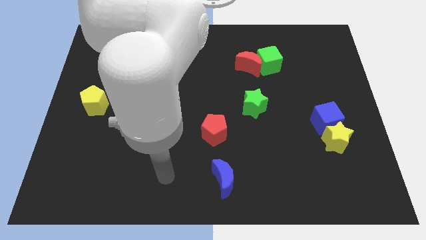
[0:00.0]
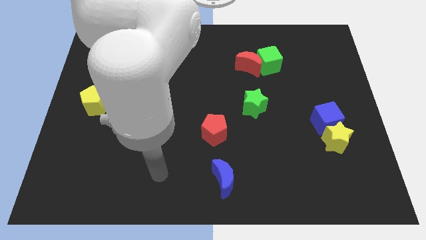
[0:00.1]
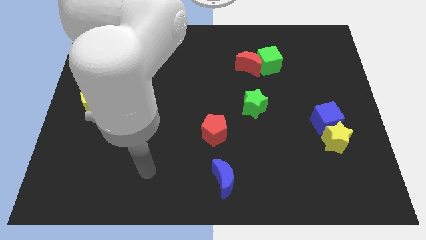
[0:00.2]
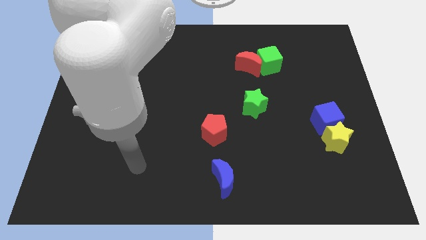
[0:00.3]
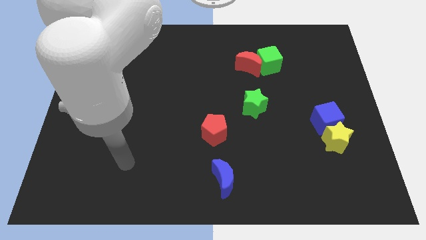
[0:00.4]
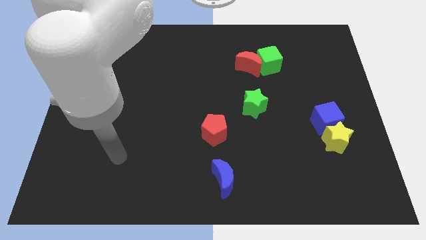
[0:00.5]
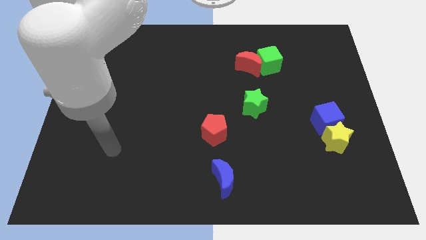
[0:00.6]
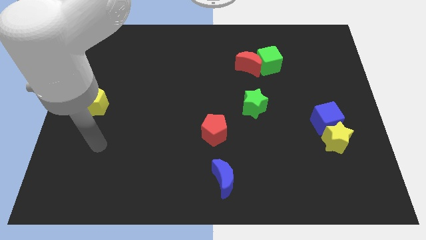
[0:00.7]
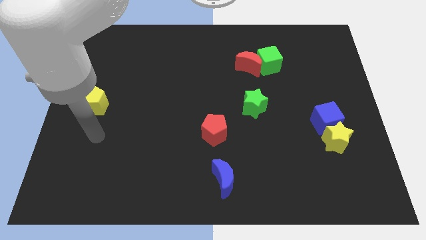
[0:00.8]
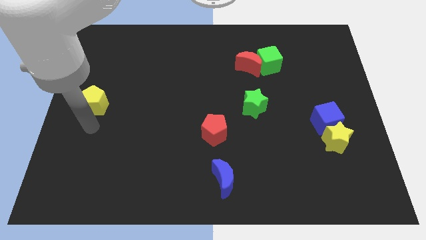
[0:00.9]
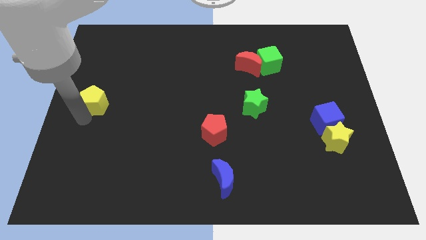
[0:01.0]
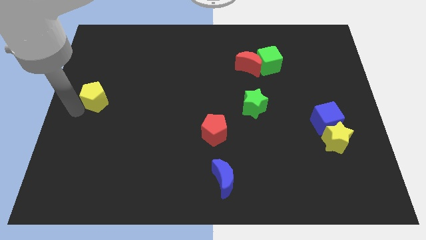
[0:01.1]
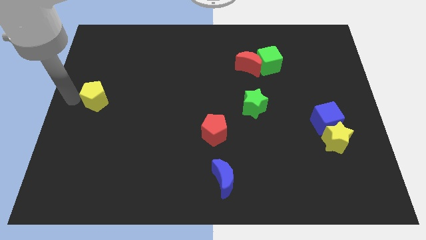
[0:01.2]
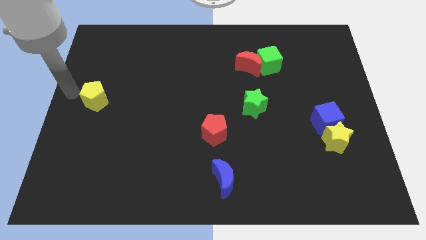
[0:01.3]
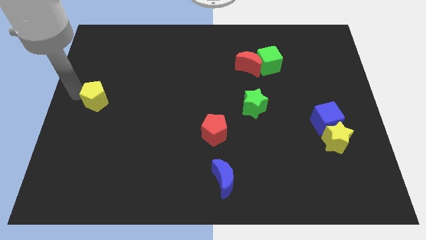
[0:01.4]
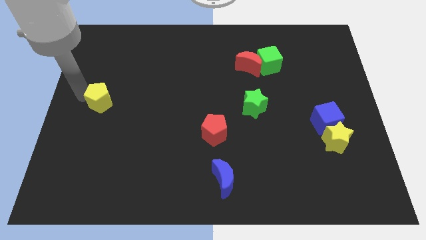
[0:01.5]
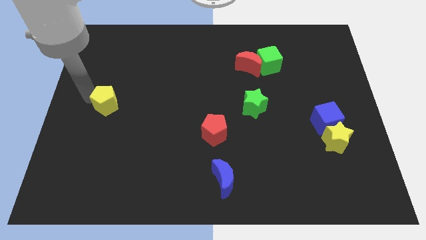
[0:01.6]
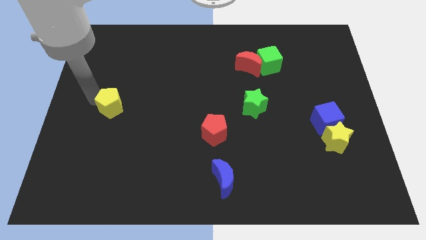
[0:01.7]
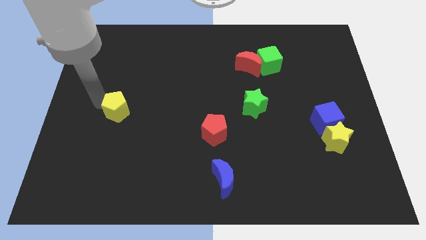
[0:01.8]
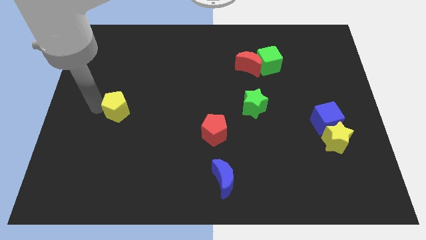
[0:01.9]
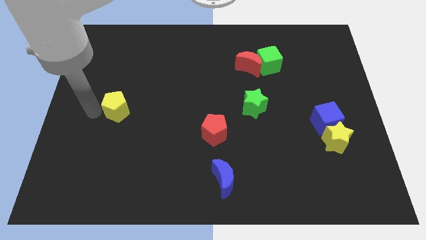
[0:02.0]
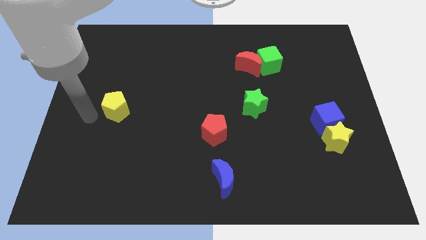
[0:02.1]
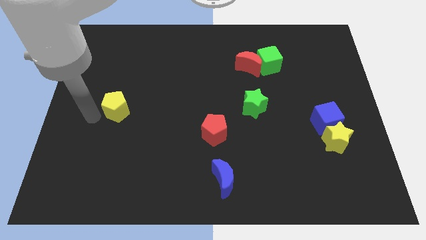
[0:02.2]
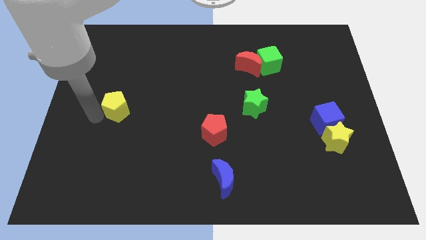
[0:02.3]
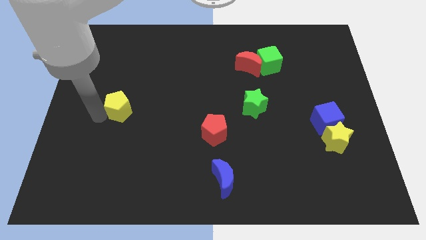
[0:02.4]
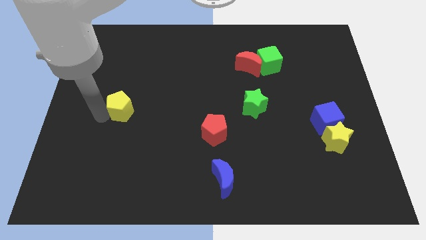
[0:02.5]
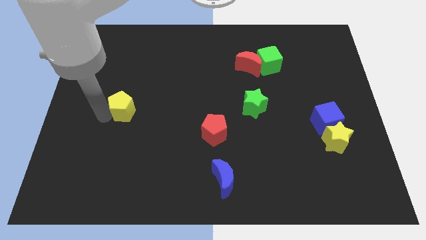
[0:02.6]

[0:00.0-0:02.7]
push the yellow pentagon a little right

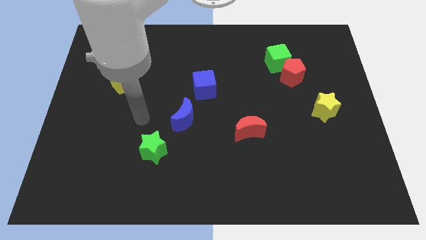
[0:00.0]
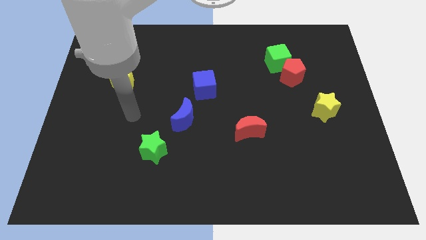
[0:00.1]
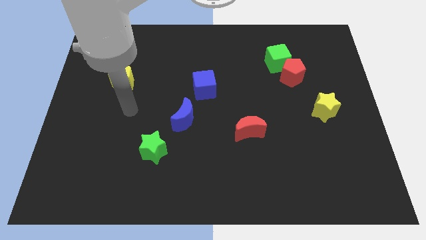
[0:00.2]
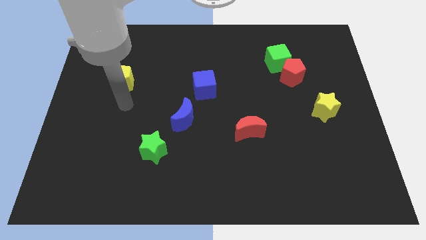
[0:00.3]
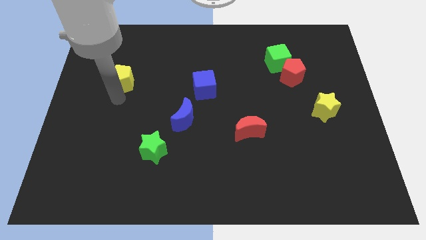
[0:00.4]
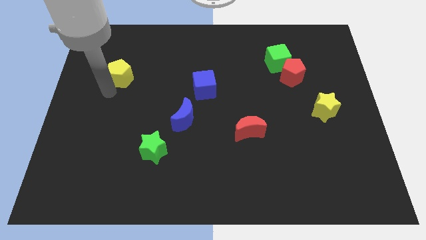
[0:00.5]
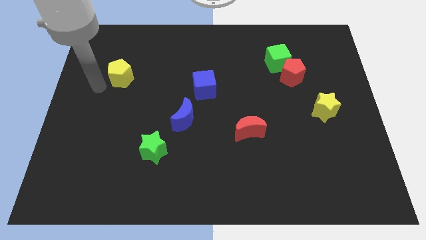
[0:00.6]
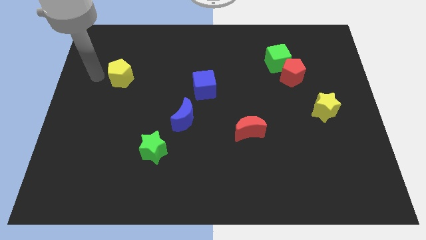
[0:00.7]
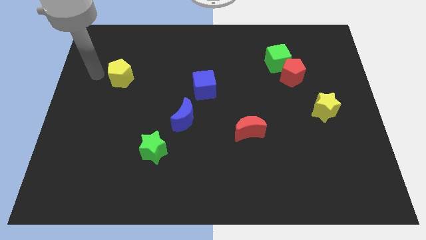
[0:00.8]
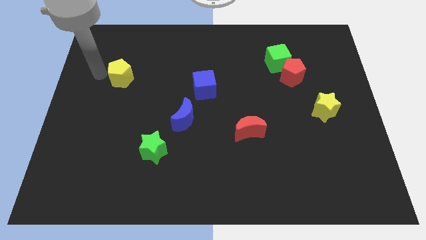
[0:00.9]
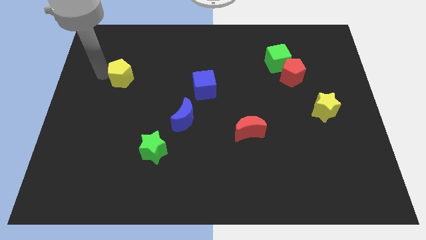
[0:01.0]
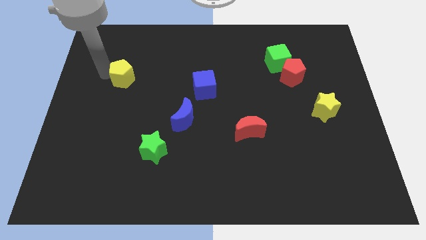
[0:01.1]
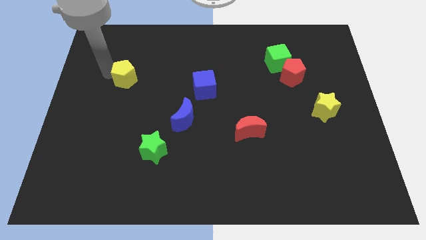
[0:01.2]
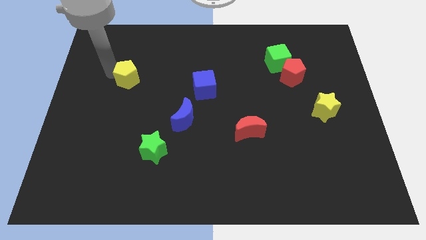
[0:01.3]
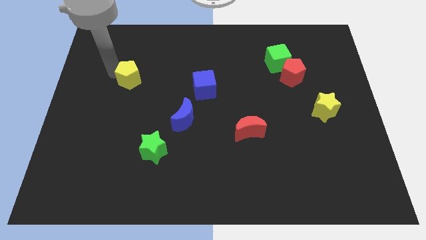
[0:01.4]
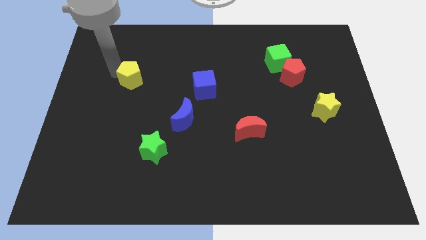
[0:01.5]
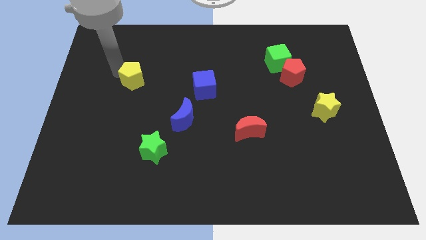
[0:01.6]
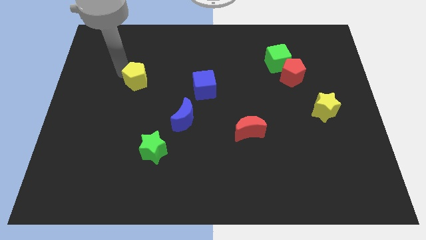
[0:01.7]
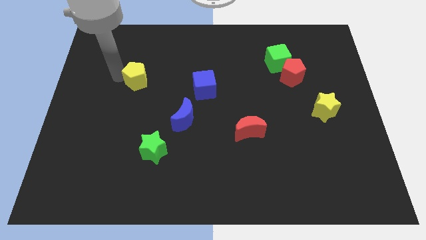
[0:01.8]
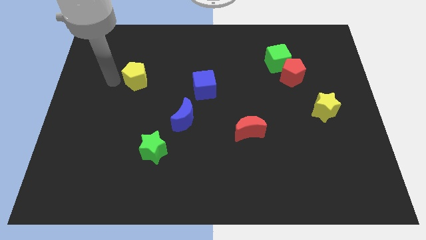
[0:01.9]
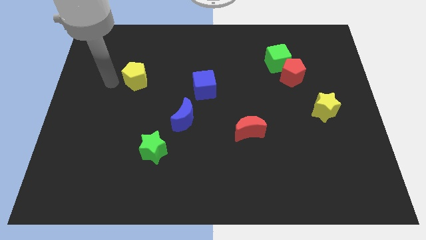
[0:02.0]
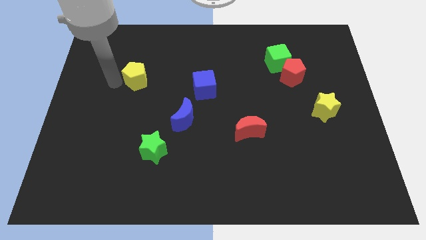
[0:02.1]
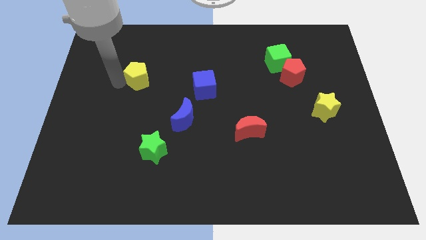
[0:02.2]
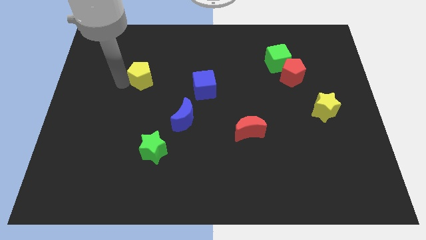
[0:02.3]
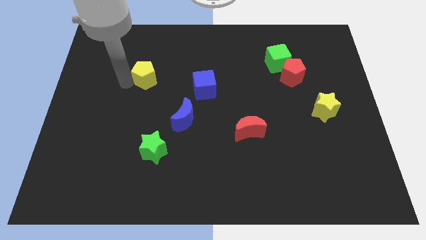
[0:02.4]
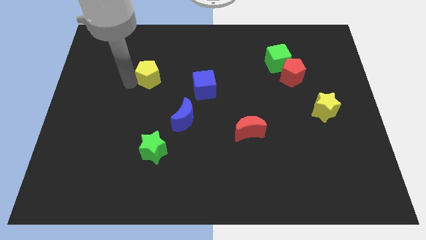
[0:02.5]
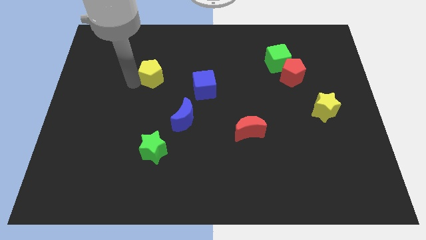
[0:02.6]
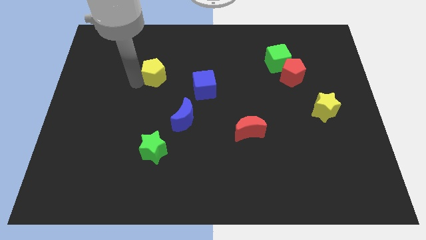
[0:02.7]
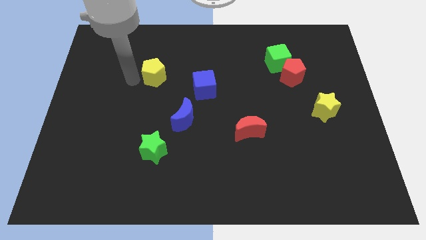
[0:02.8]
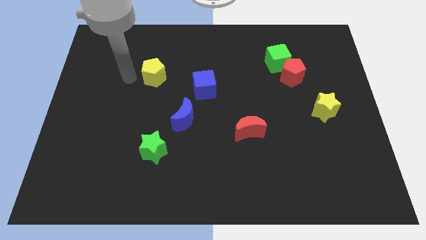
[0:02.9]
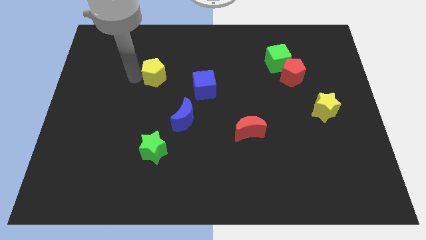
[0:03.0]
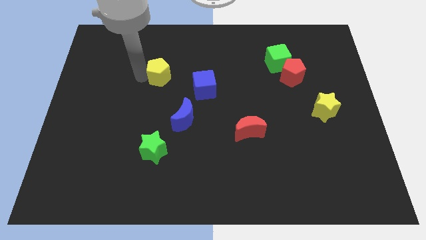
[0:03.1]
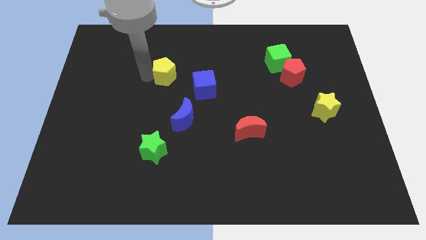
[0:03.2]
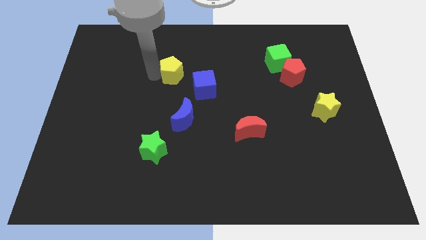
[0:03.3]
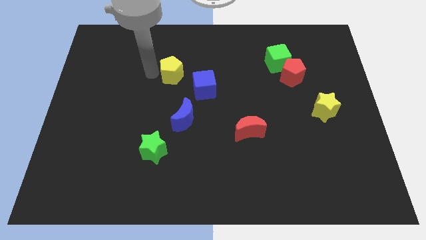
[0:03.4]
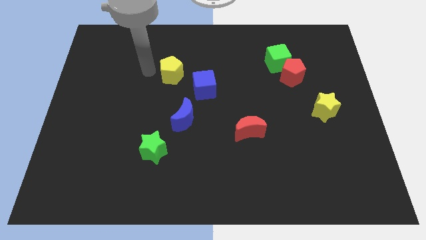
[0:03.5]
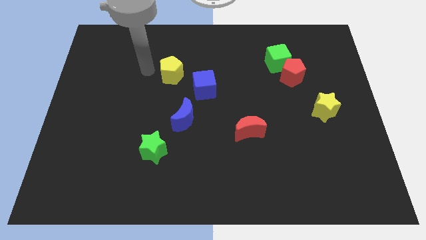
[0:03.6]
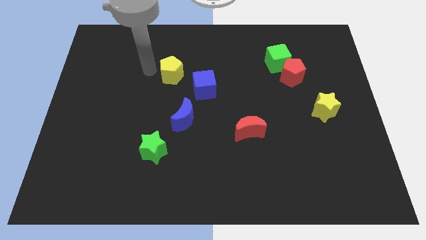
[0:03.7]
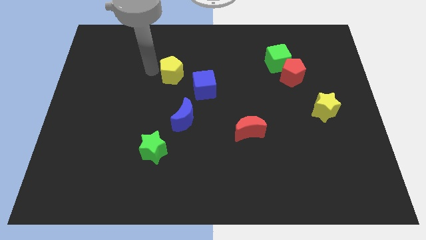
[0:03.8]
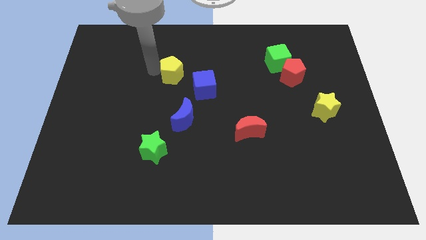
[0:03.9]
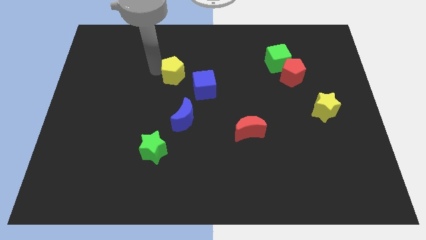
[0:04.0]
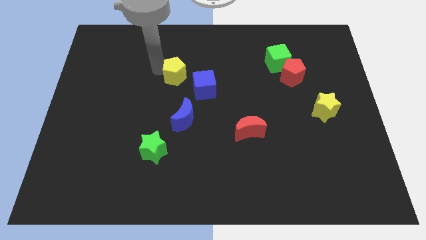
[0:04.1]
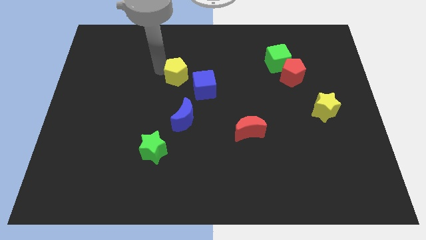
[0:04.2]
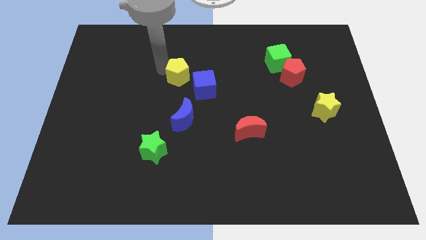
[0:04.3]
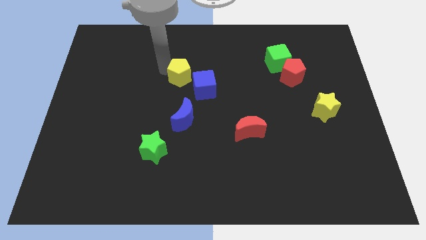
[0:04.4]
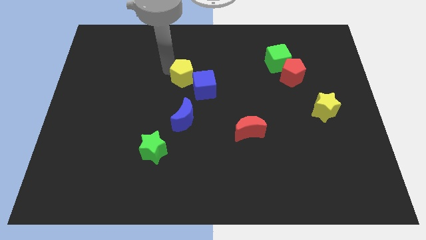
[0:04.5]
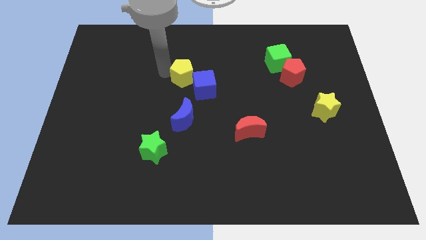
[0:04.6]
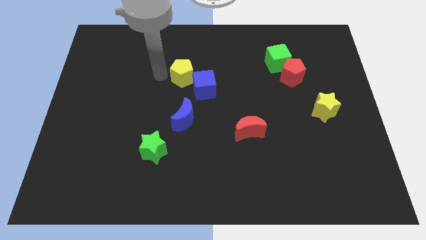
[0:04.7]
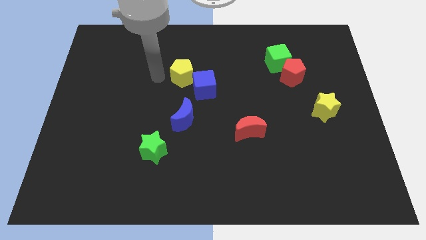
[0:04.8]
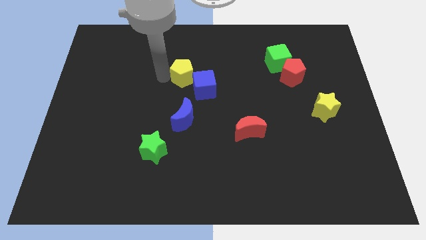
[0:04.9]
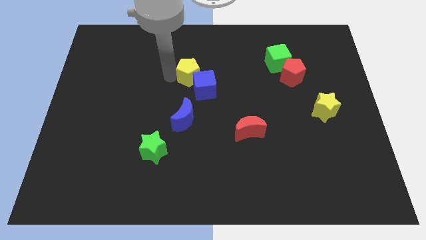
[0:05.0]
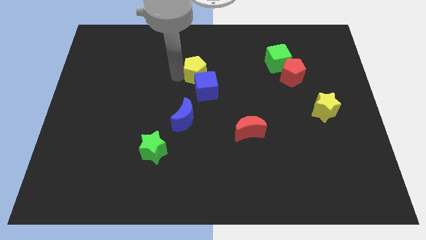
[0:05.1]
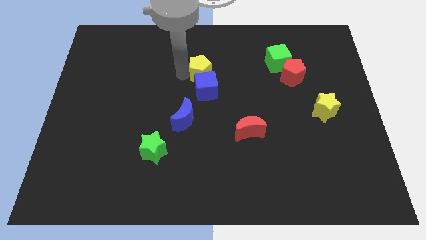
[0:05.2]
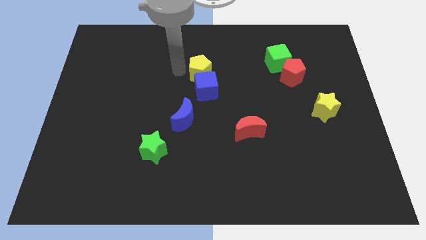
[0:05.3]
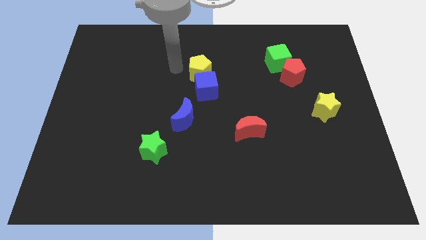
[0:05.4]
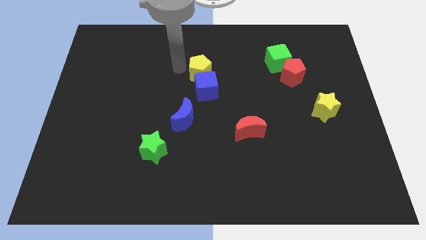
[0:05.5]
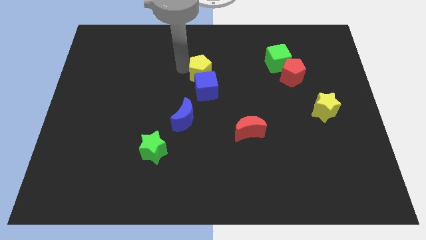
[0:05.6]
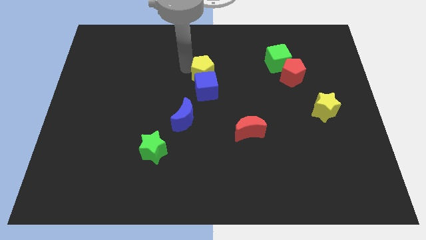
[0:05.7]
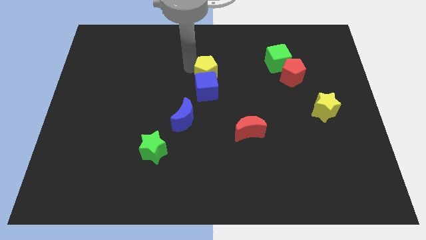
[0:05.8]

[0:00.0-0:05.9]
move the yellow pentagon right

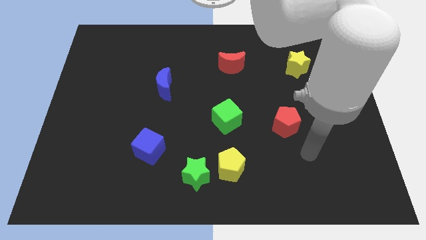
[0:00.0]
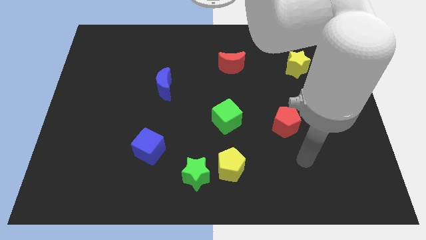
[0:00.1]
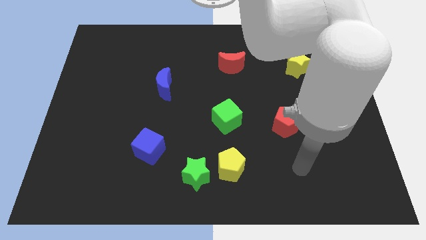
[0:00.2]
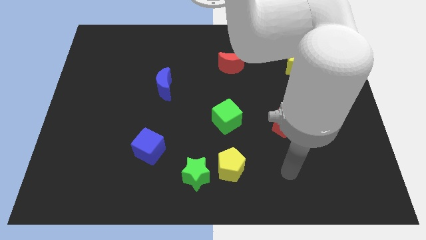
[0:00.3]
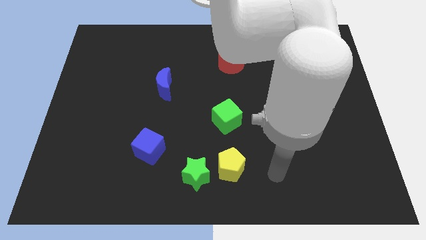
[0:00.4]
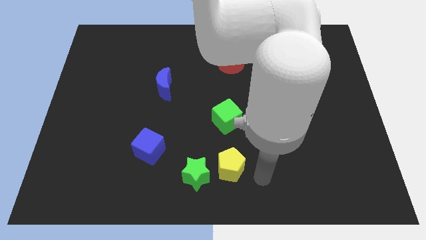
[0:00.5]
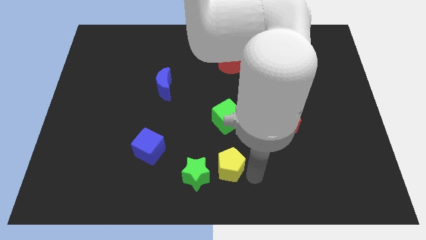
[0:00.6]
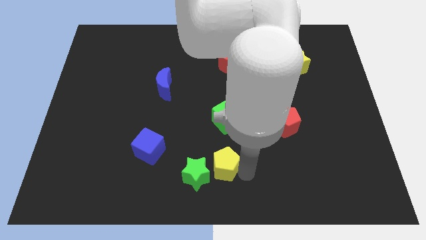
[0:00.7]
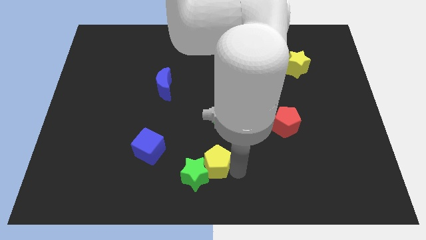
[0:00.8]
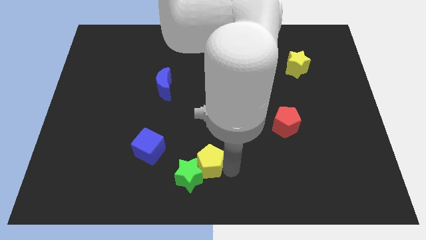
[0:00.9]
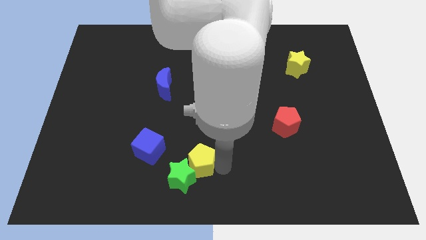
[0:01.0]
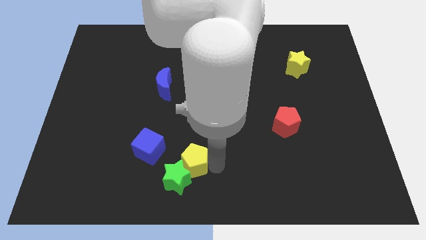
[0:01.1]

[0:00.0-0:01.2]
push the yellow pentagon to the left a little
